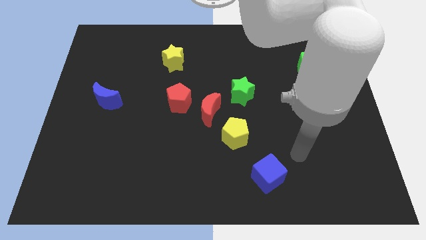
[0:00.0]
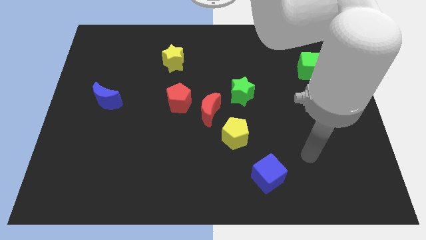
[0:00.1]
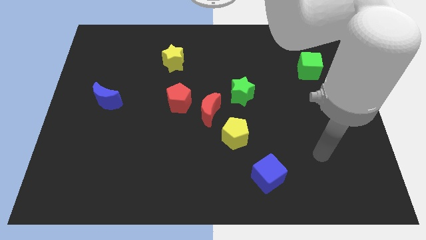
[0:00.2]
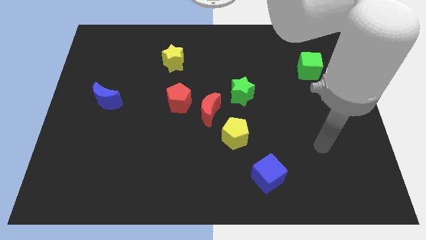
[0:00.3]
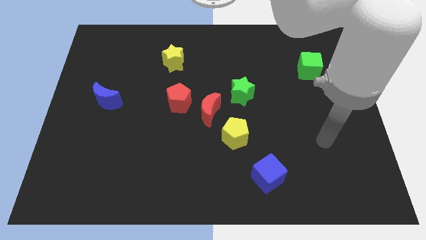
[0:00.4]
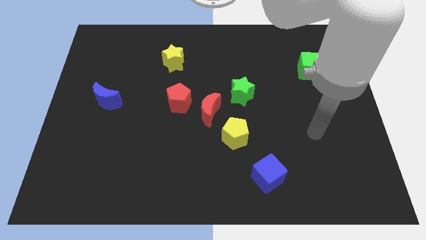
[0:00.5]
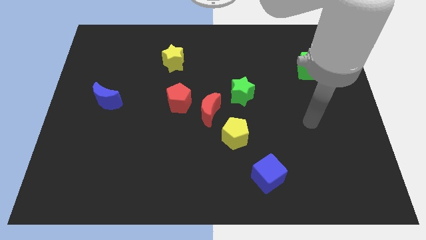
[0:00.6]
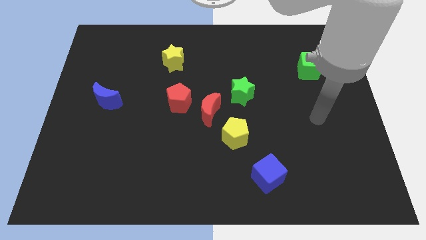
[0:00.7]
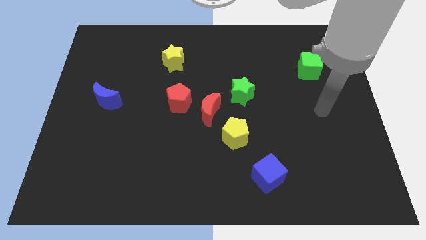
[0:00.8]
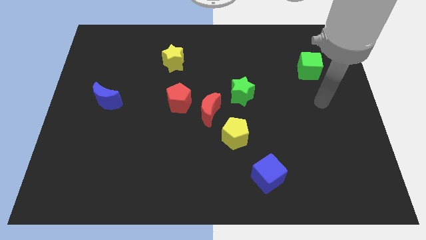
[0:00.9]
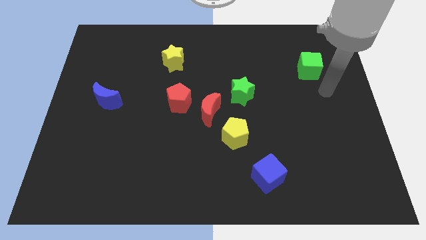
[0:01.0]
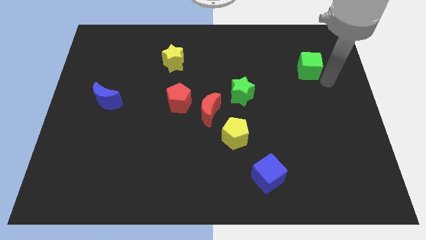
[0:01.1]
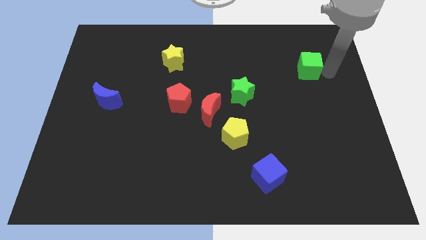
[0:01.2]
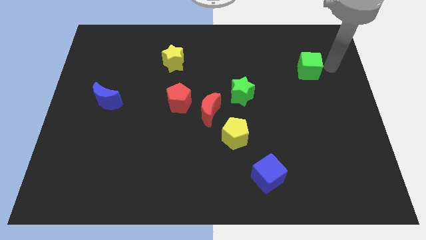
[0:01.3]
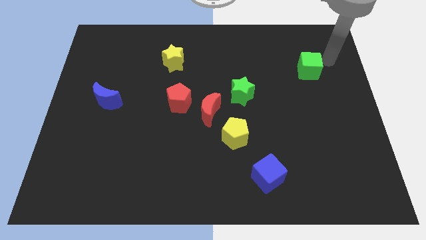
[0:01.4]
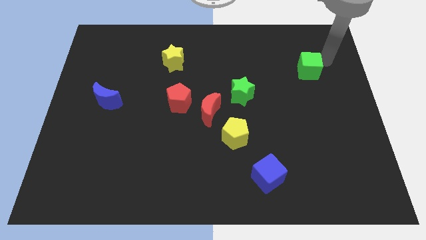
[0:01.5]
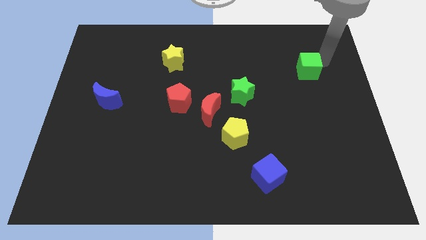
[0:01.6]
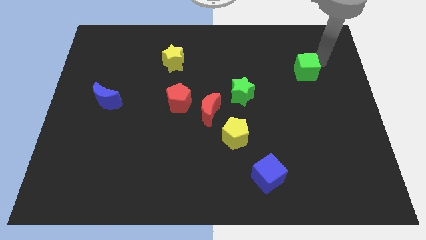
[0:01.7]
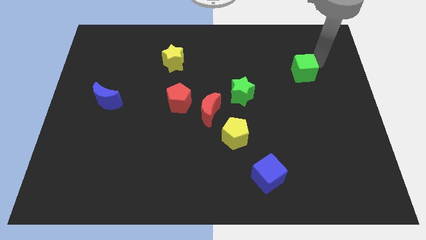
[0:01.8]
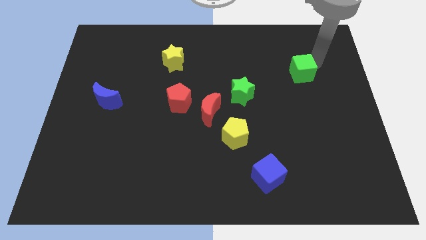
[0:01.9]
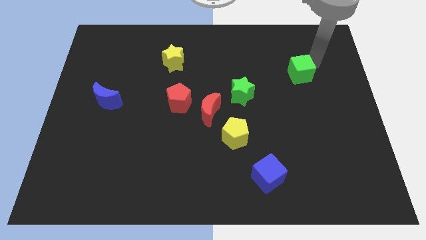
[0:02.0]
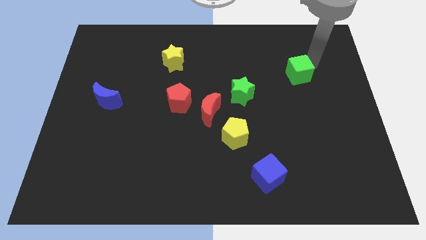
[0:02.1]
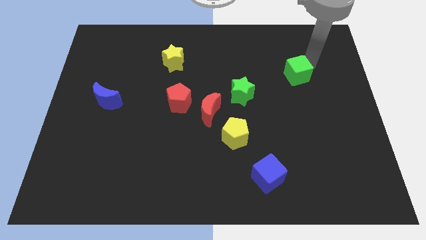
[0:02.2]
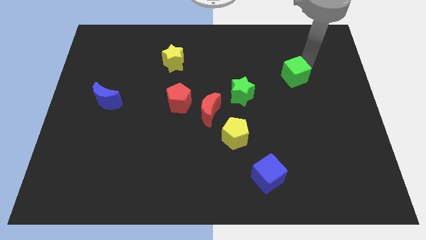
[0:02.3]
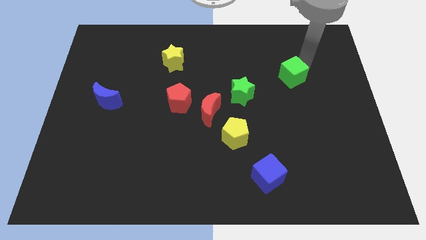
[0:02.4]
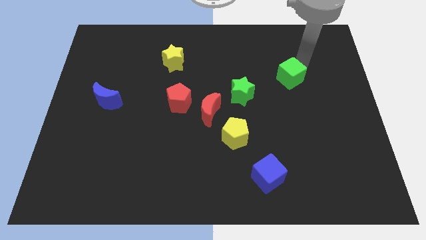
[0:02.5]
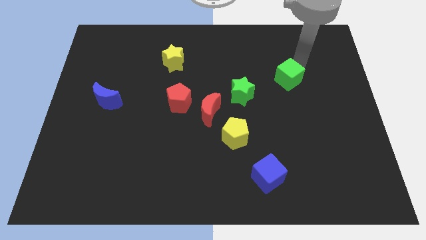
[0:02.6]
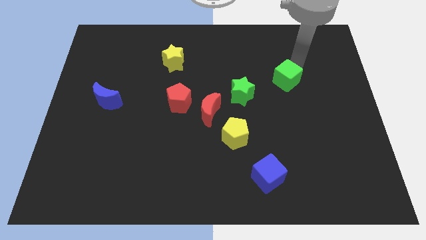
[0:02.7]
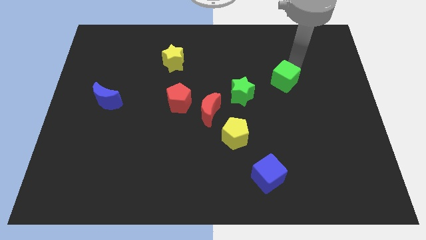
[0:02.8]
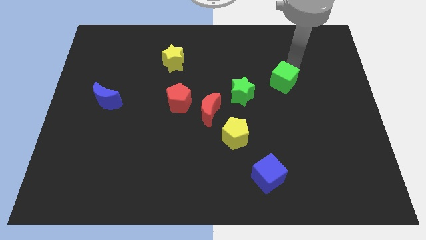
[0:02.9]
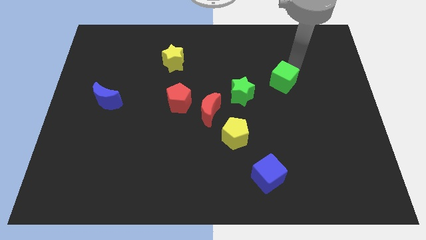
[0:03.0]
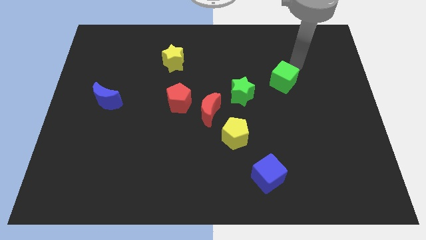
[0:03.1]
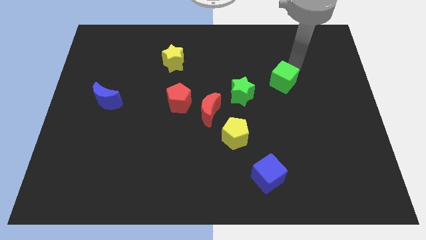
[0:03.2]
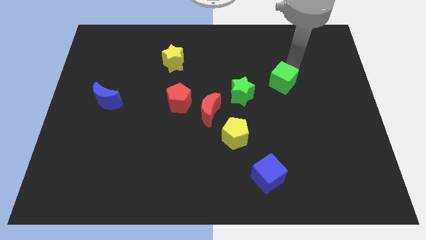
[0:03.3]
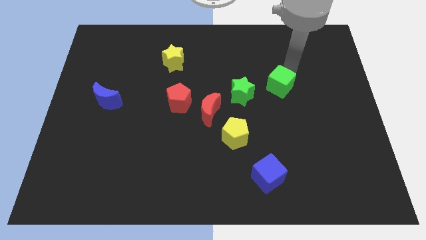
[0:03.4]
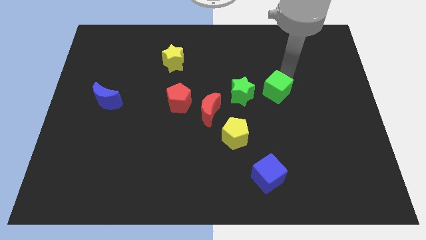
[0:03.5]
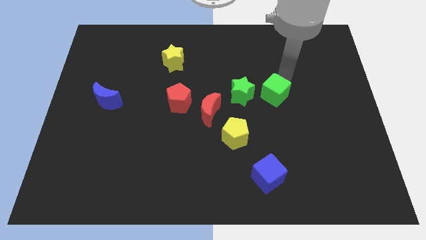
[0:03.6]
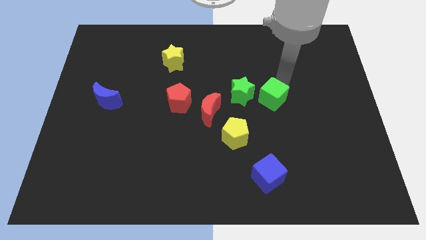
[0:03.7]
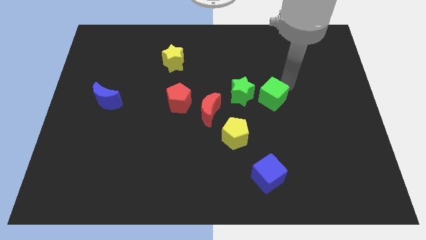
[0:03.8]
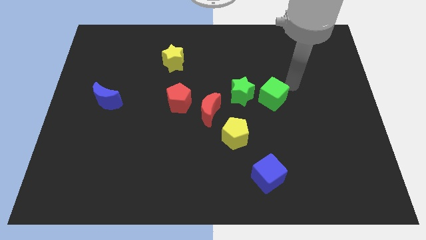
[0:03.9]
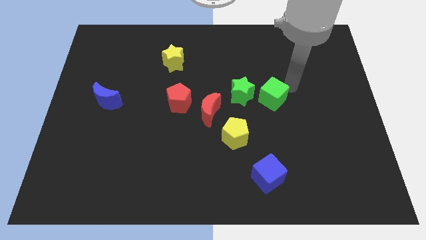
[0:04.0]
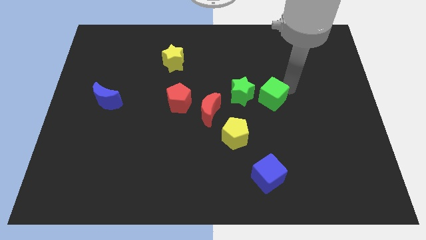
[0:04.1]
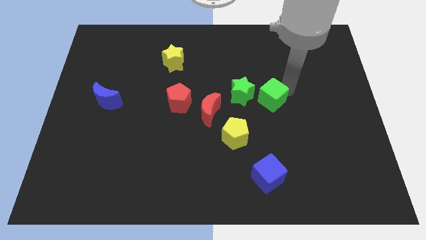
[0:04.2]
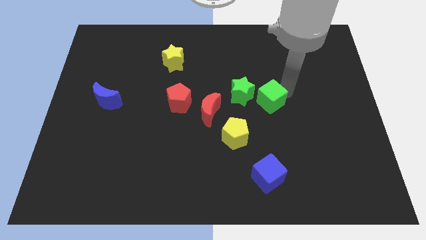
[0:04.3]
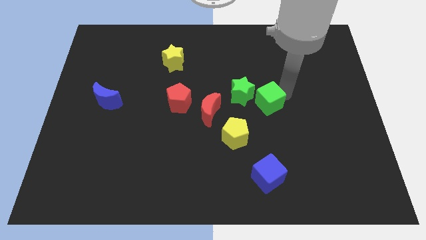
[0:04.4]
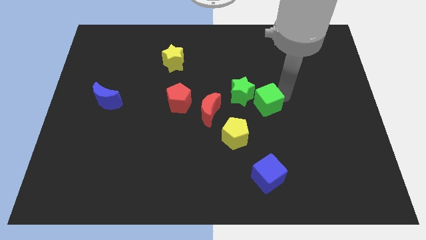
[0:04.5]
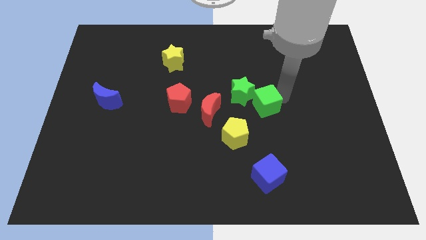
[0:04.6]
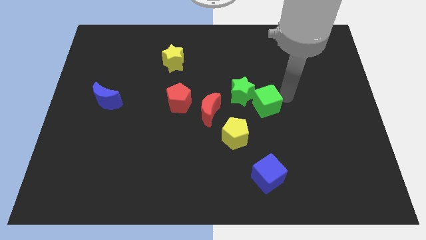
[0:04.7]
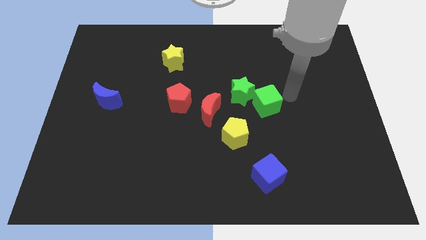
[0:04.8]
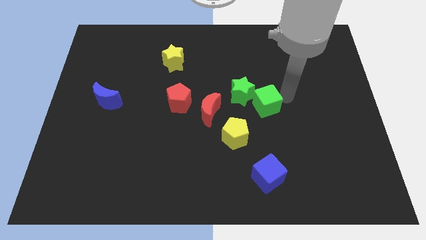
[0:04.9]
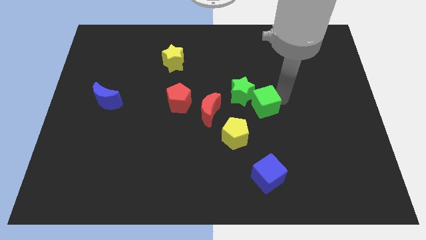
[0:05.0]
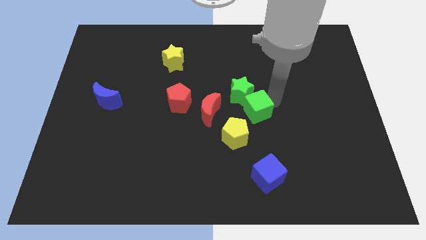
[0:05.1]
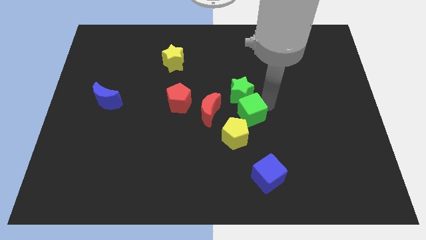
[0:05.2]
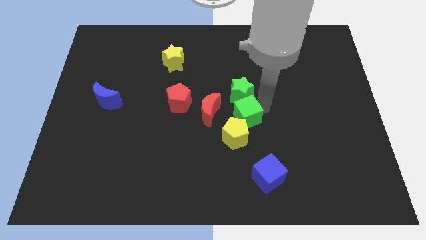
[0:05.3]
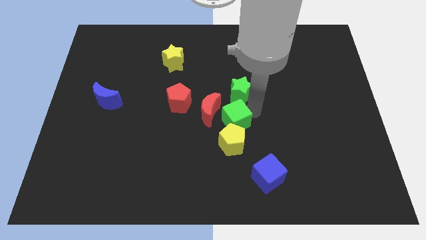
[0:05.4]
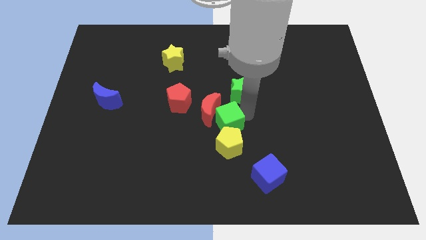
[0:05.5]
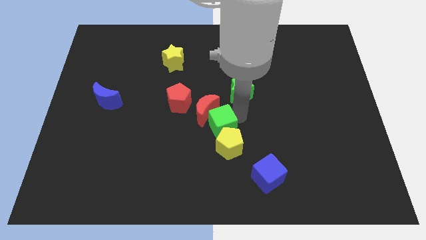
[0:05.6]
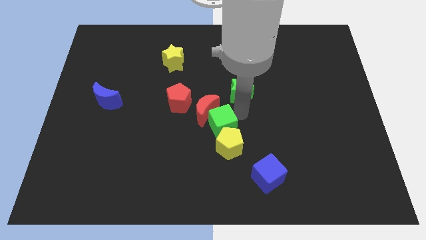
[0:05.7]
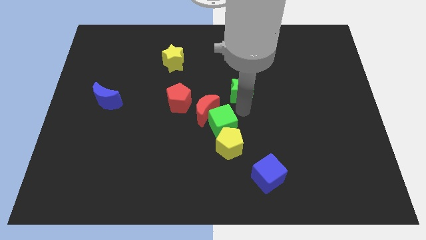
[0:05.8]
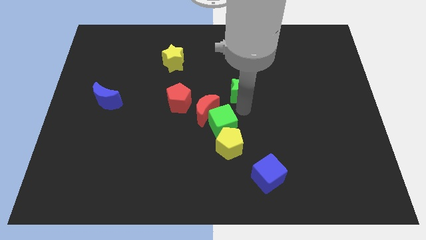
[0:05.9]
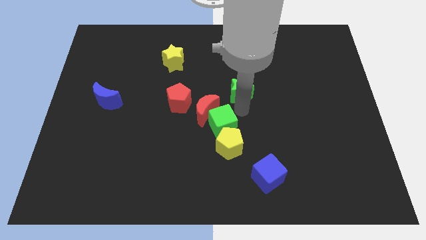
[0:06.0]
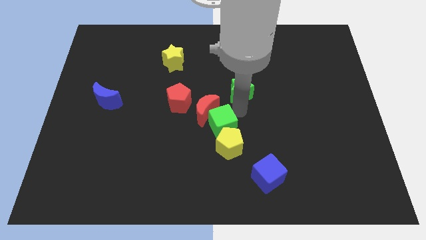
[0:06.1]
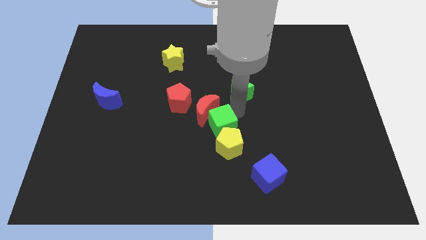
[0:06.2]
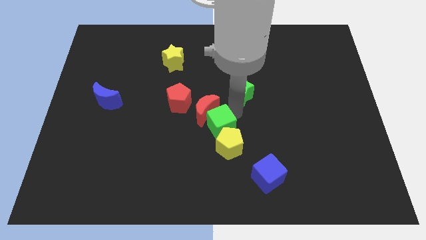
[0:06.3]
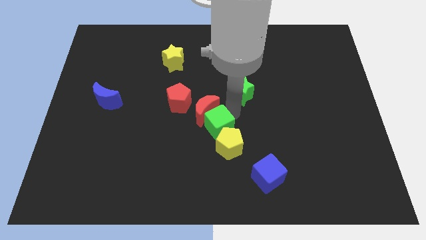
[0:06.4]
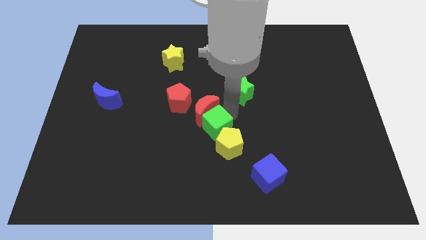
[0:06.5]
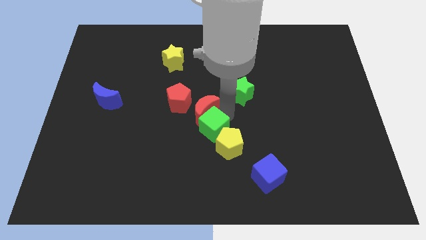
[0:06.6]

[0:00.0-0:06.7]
push the green cube to the bottom left side of the red moon

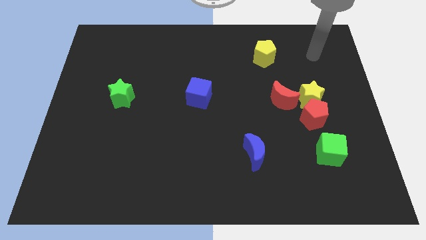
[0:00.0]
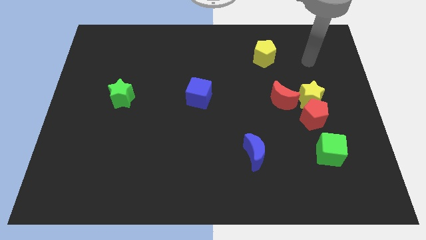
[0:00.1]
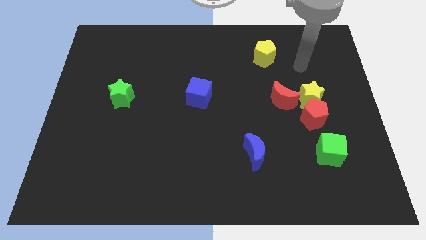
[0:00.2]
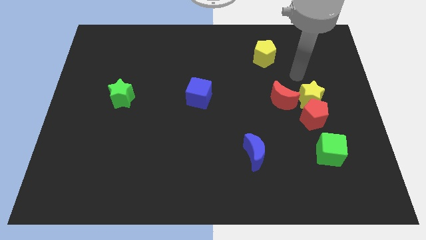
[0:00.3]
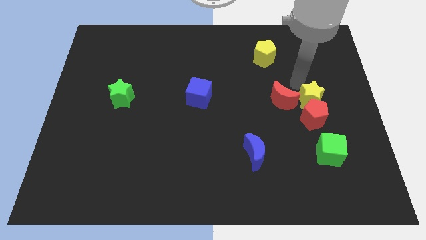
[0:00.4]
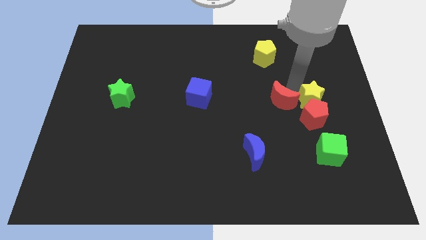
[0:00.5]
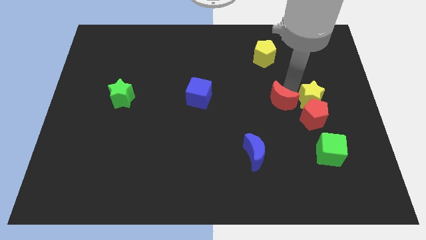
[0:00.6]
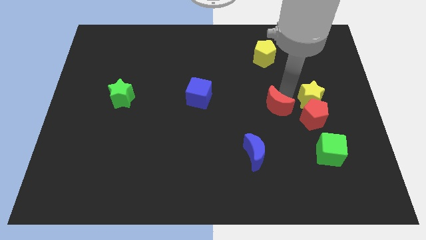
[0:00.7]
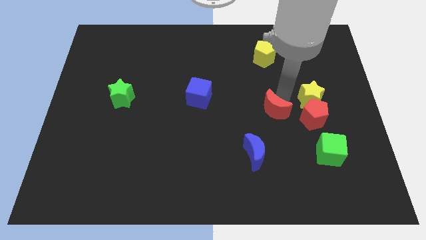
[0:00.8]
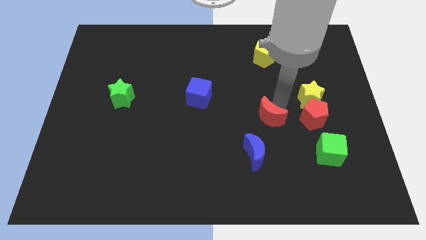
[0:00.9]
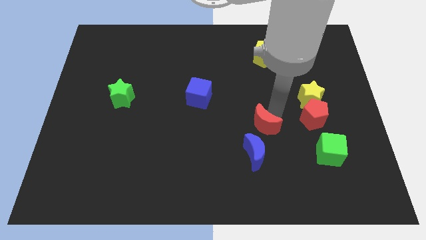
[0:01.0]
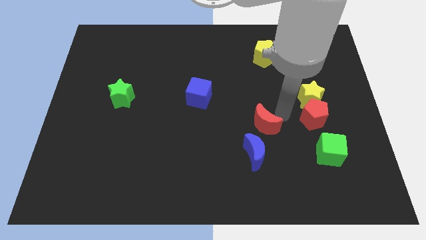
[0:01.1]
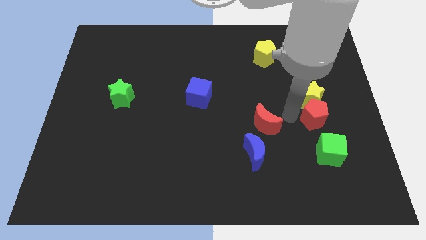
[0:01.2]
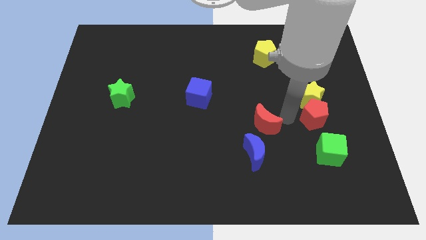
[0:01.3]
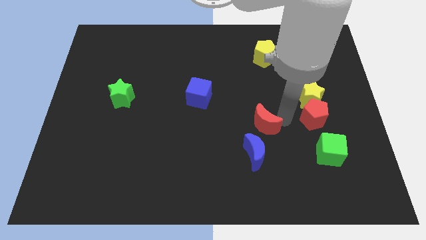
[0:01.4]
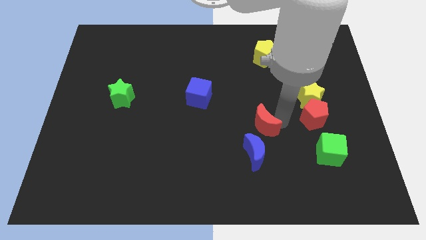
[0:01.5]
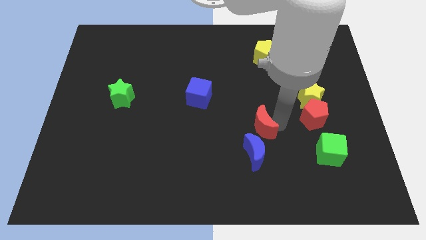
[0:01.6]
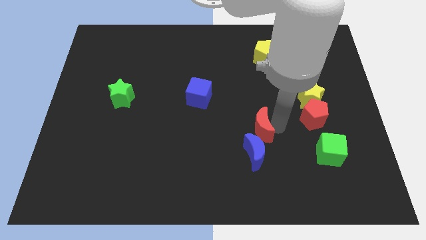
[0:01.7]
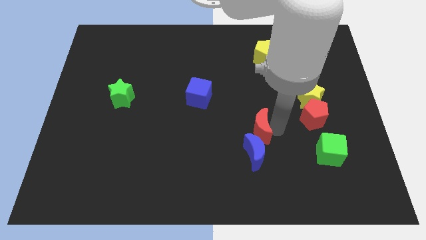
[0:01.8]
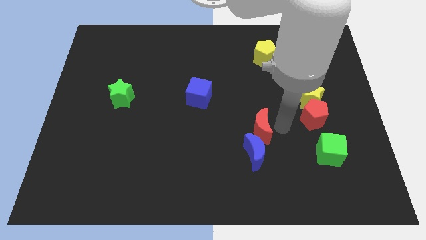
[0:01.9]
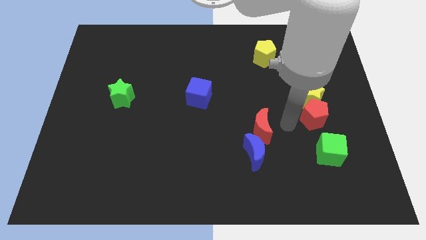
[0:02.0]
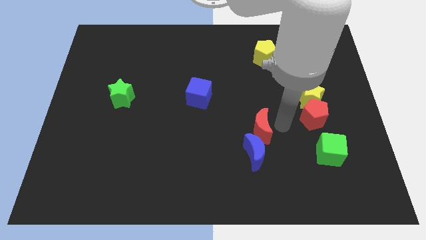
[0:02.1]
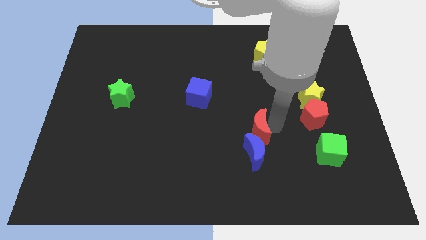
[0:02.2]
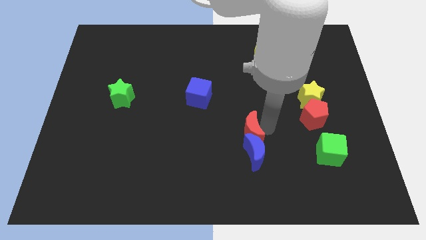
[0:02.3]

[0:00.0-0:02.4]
push the red moon to the top left side of the blue moon
